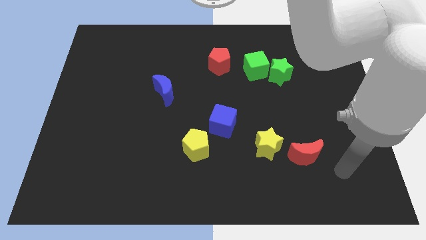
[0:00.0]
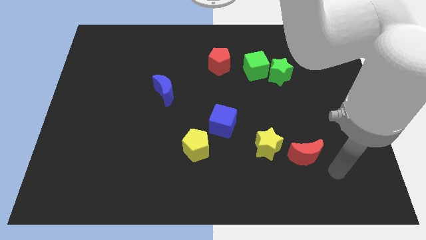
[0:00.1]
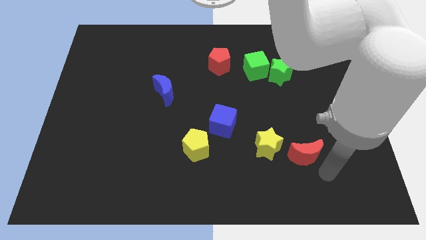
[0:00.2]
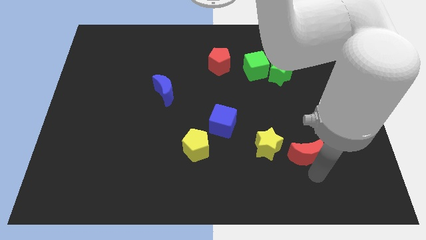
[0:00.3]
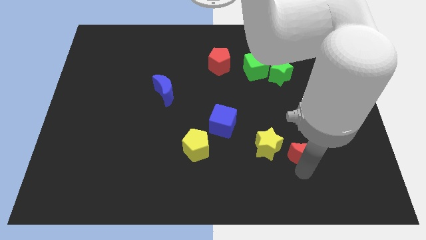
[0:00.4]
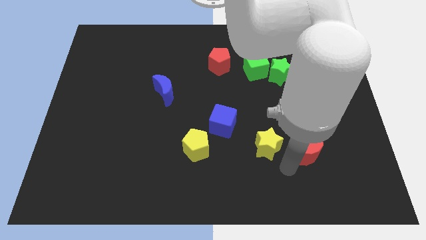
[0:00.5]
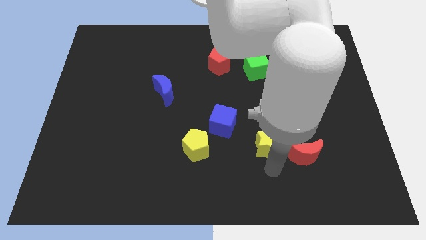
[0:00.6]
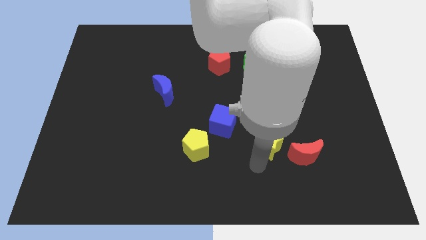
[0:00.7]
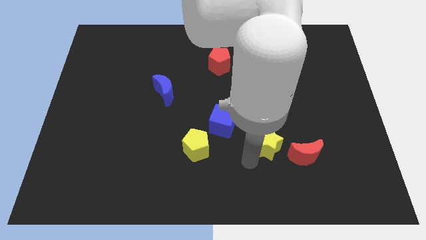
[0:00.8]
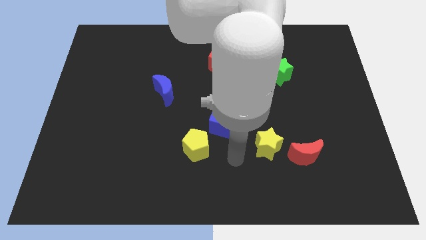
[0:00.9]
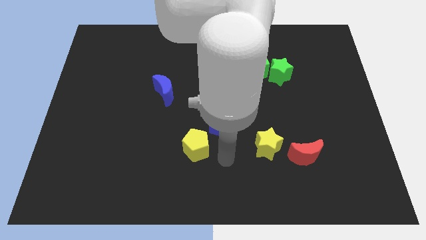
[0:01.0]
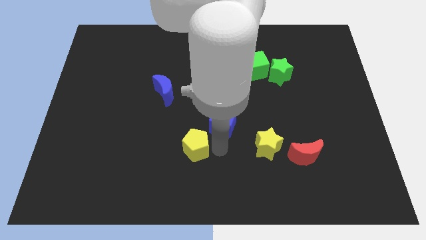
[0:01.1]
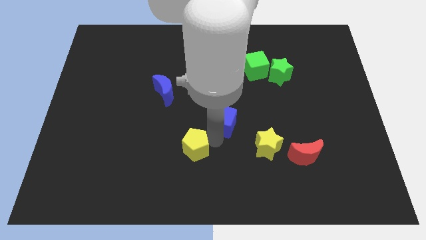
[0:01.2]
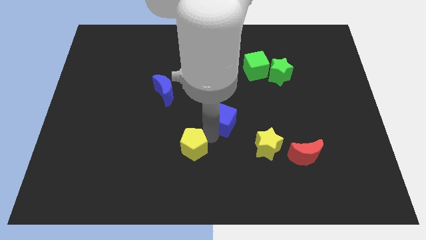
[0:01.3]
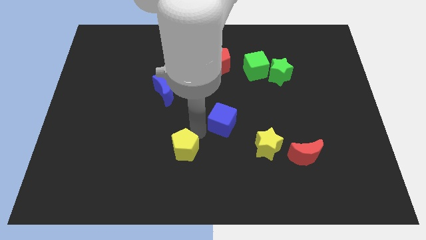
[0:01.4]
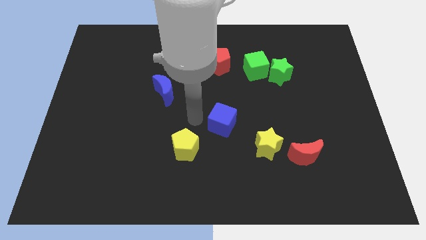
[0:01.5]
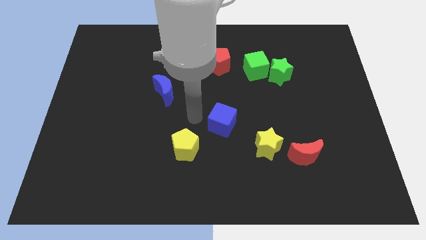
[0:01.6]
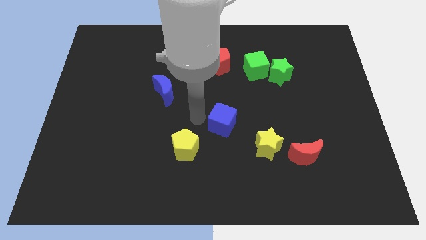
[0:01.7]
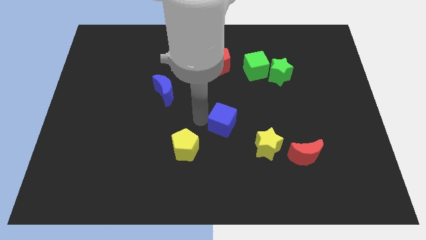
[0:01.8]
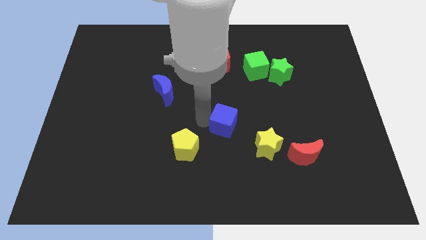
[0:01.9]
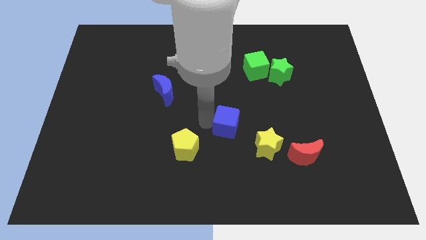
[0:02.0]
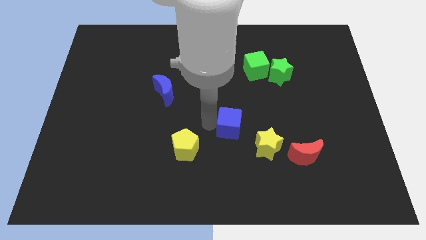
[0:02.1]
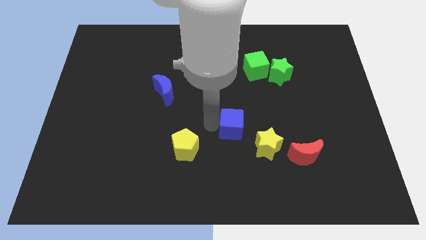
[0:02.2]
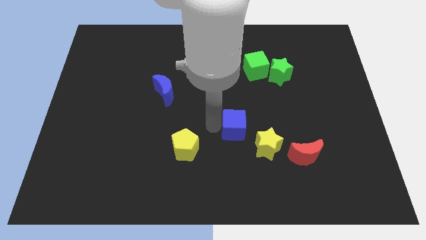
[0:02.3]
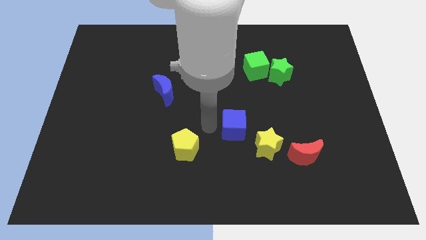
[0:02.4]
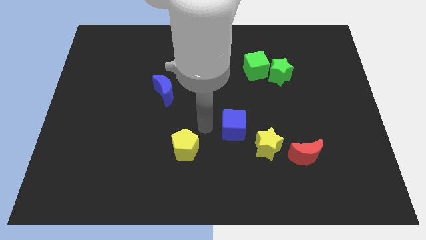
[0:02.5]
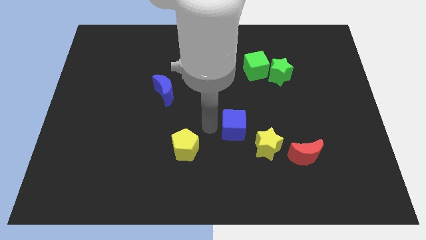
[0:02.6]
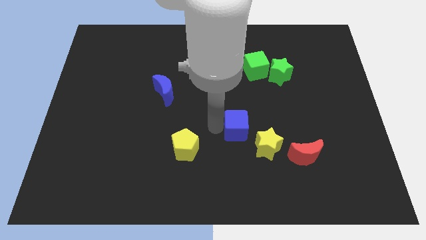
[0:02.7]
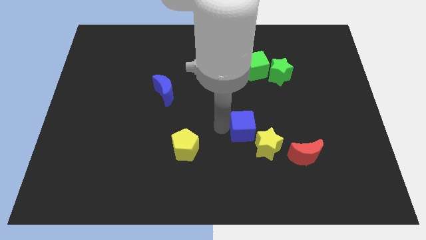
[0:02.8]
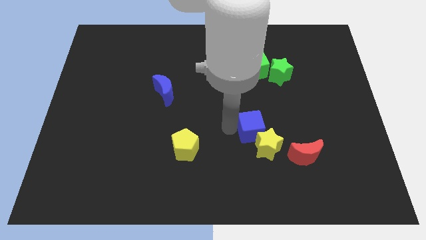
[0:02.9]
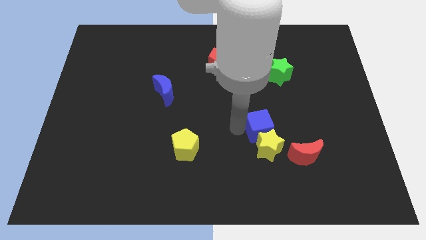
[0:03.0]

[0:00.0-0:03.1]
move the blue cube slightly right

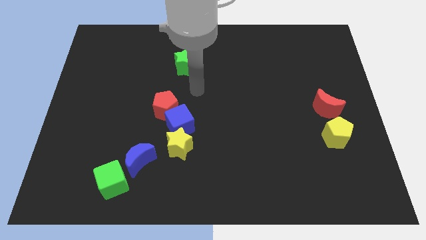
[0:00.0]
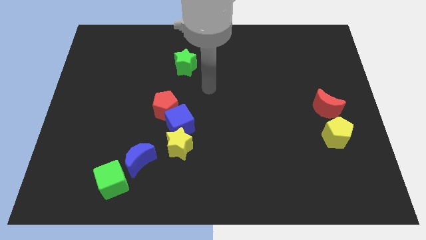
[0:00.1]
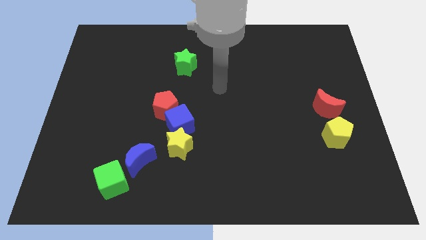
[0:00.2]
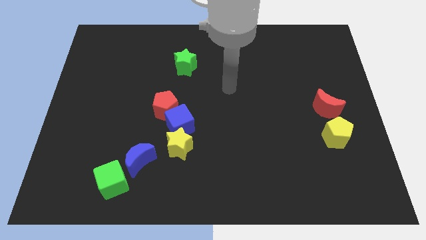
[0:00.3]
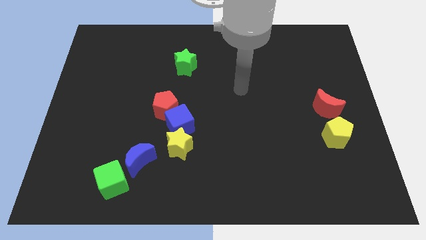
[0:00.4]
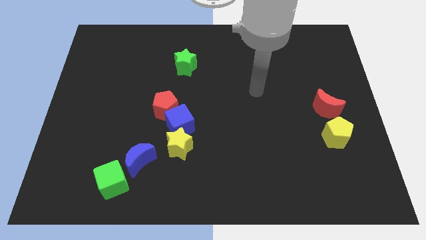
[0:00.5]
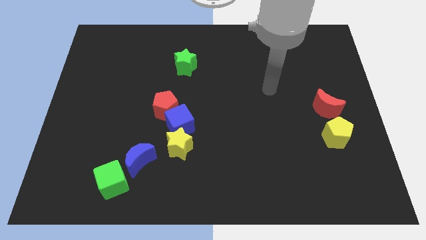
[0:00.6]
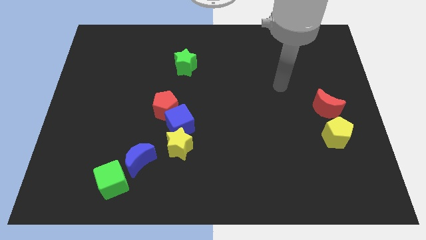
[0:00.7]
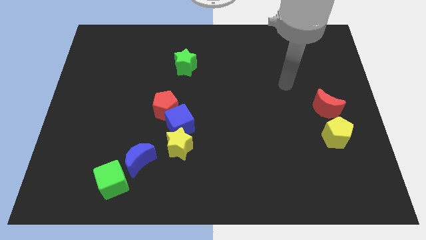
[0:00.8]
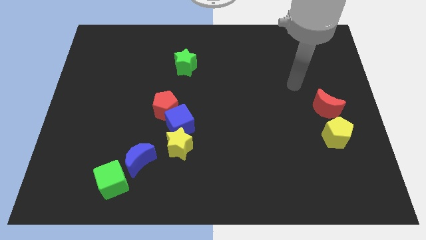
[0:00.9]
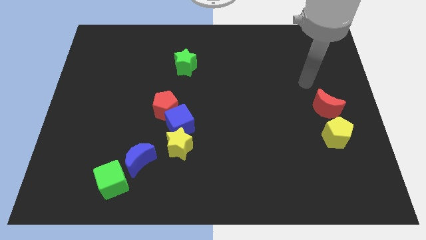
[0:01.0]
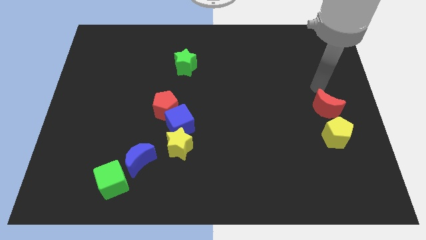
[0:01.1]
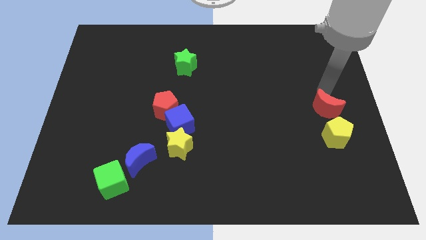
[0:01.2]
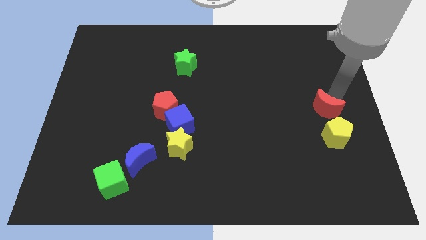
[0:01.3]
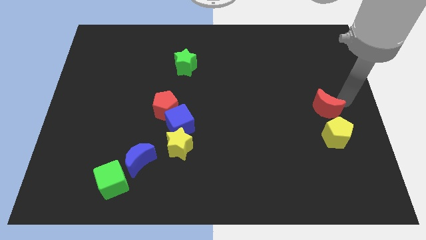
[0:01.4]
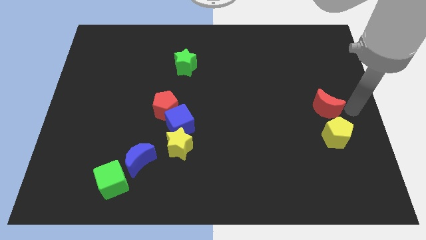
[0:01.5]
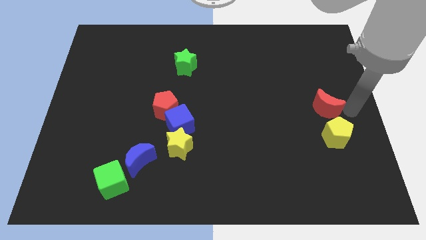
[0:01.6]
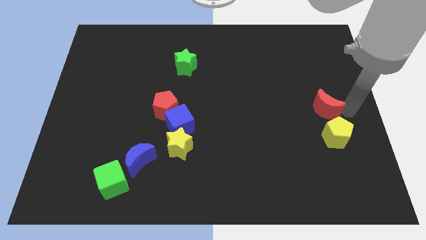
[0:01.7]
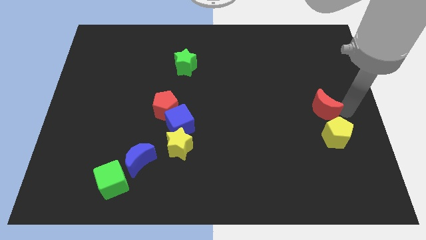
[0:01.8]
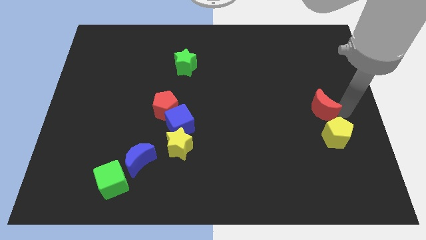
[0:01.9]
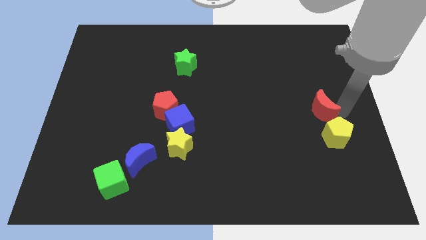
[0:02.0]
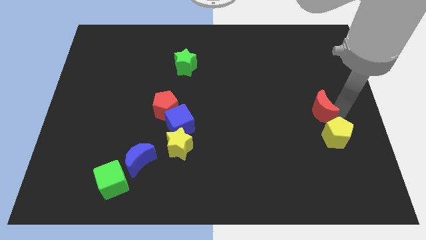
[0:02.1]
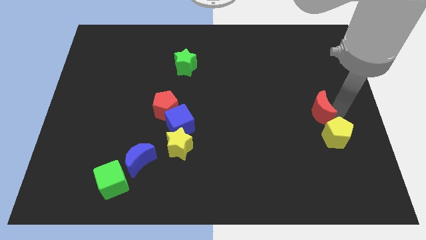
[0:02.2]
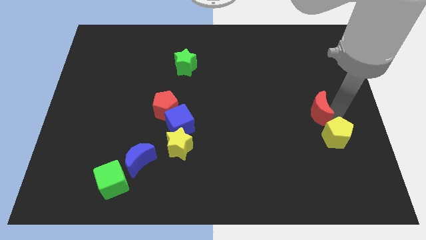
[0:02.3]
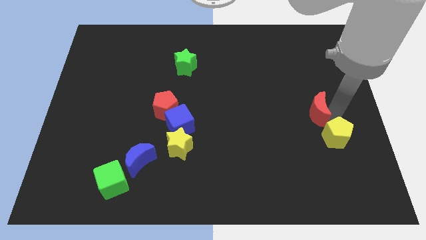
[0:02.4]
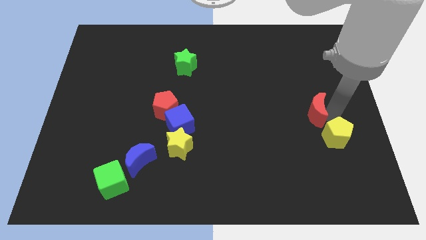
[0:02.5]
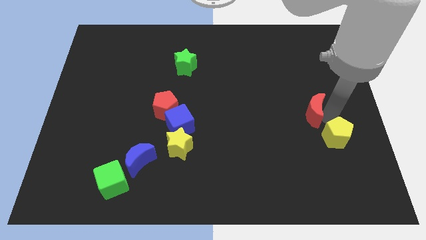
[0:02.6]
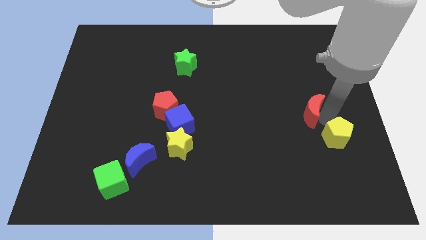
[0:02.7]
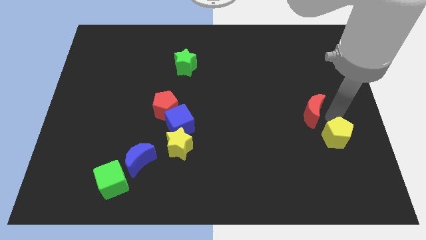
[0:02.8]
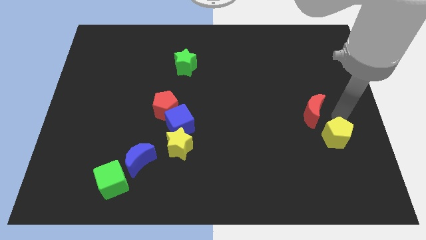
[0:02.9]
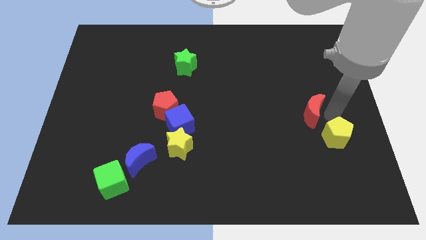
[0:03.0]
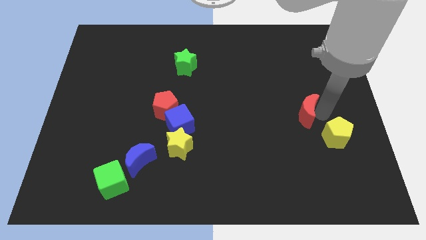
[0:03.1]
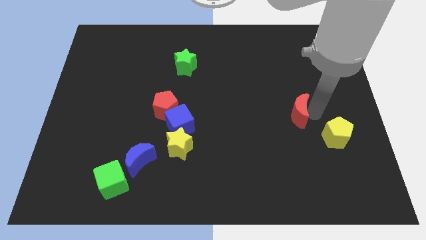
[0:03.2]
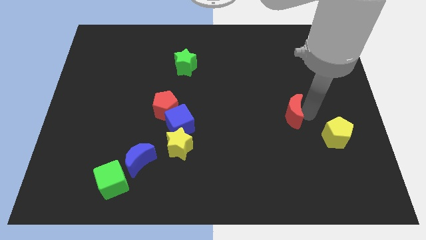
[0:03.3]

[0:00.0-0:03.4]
move the red moon slightly left

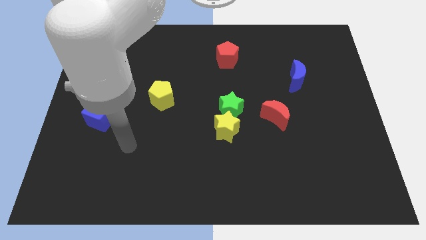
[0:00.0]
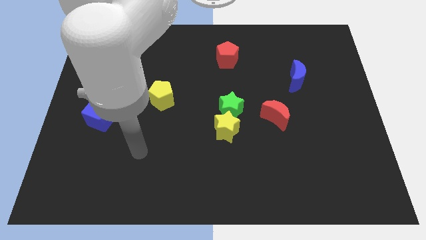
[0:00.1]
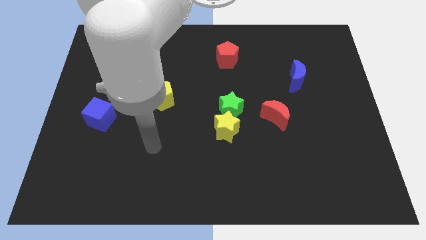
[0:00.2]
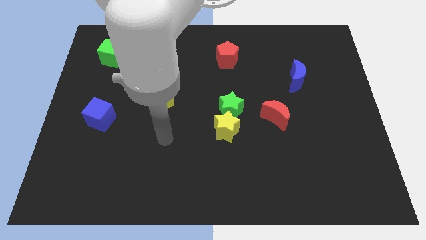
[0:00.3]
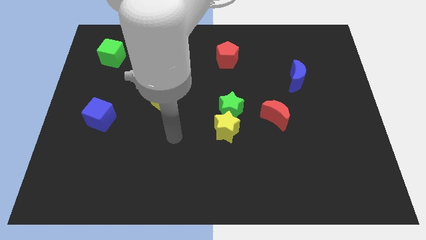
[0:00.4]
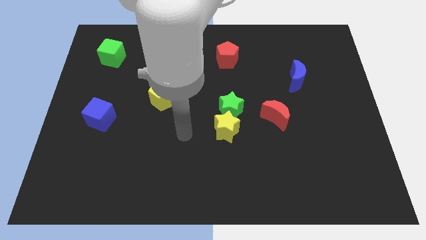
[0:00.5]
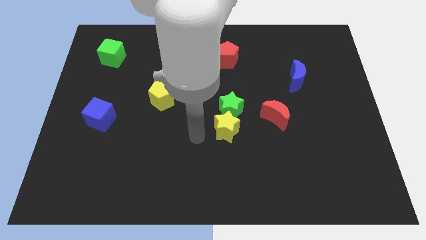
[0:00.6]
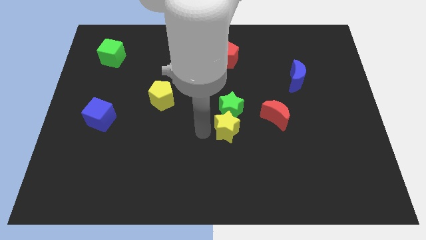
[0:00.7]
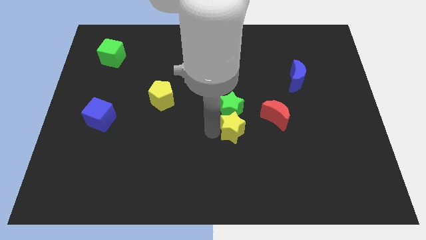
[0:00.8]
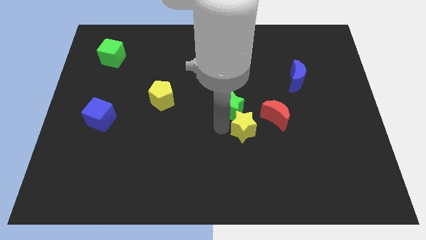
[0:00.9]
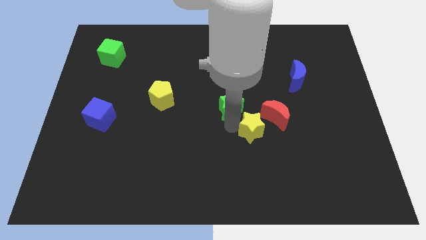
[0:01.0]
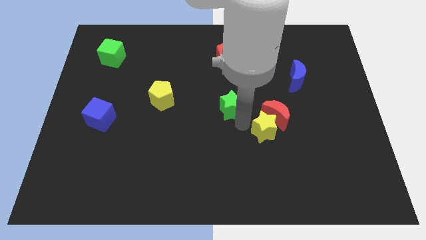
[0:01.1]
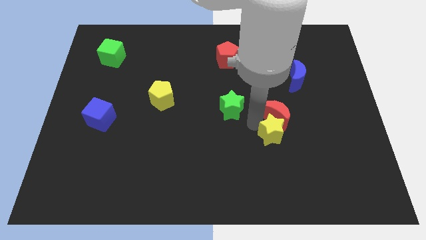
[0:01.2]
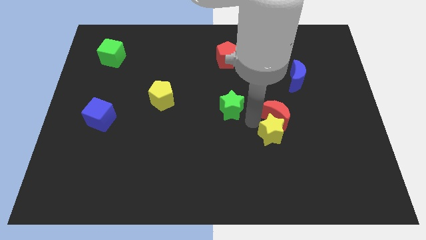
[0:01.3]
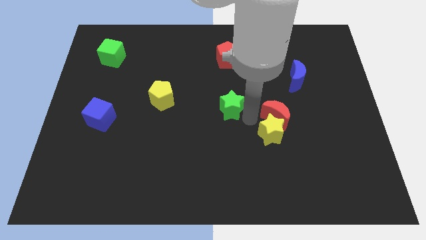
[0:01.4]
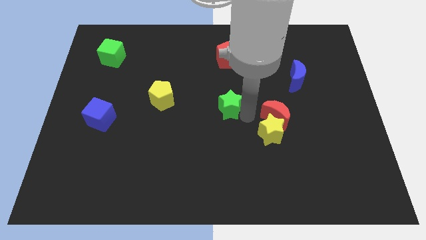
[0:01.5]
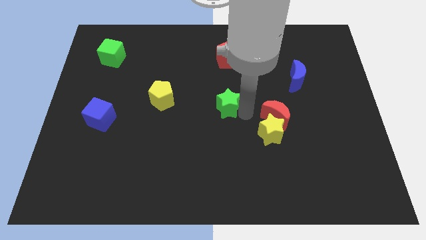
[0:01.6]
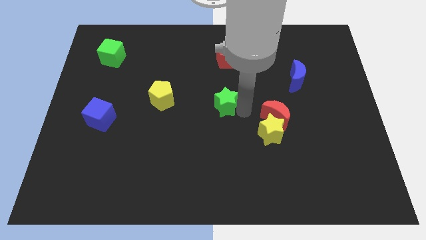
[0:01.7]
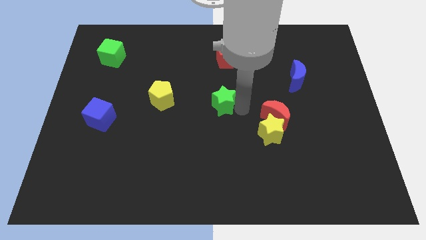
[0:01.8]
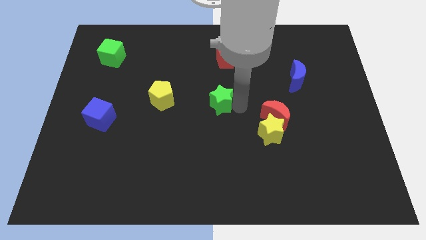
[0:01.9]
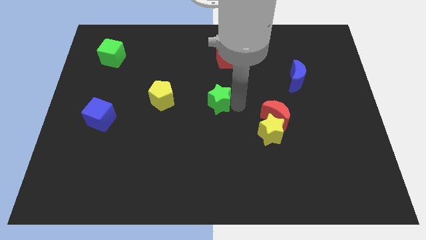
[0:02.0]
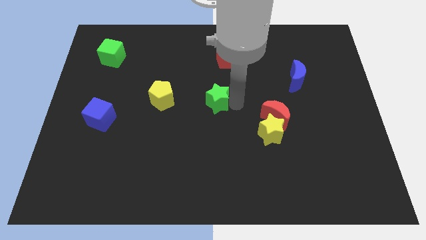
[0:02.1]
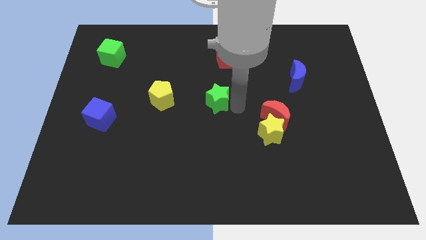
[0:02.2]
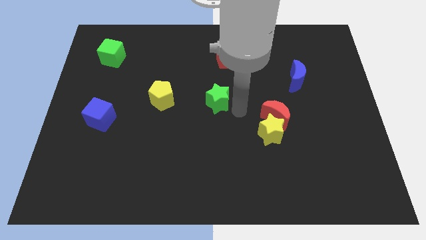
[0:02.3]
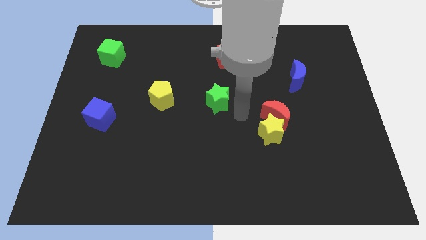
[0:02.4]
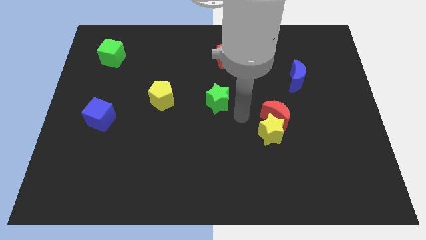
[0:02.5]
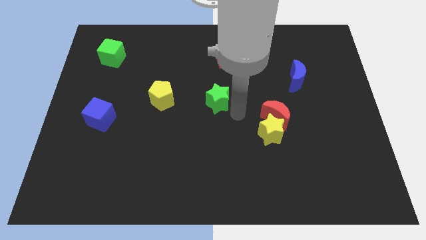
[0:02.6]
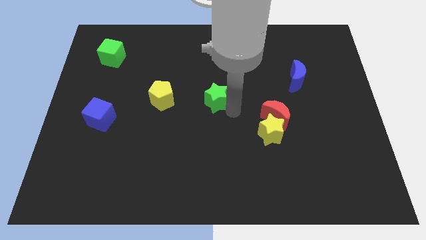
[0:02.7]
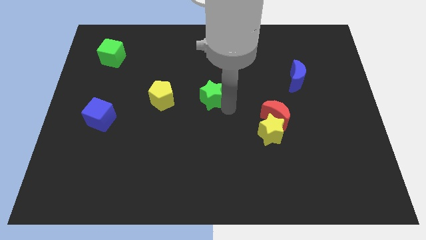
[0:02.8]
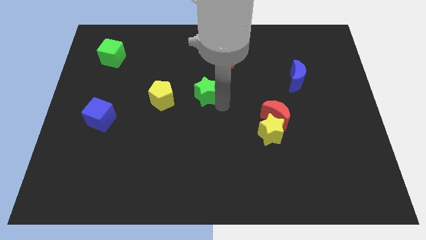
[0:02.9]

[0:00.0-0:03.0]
move the green star a little upwards and left diagonally
